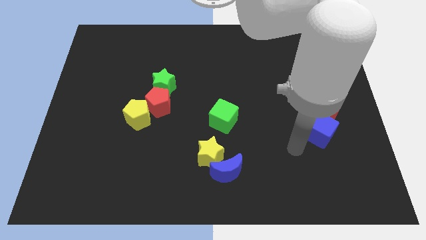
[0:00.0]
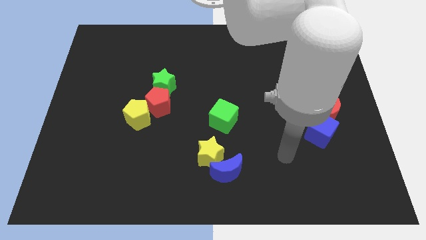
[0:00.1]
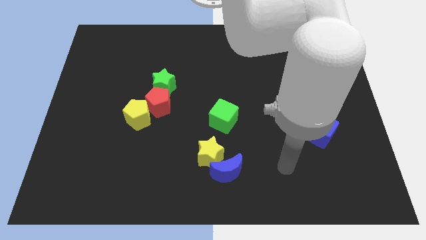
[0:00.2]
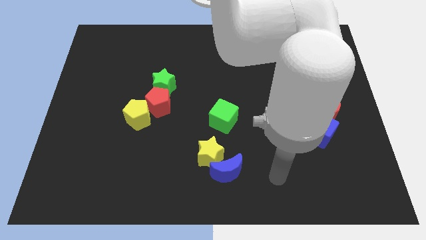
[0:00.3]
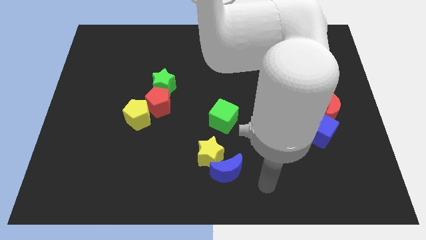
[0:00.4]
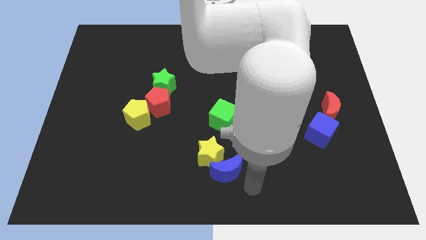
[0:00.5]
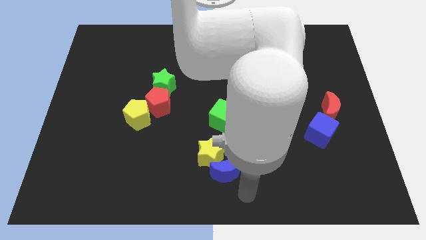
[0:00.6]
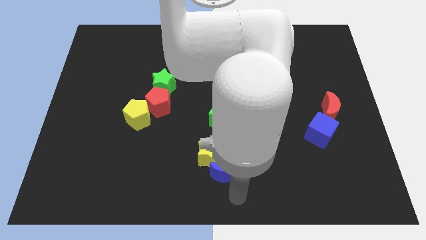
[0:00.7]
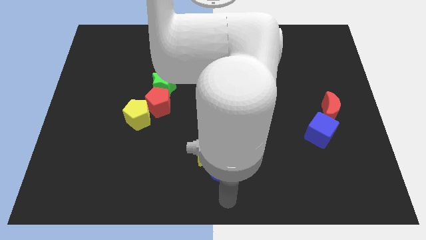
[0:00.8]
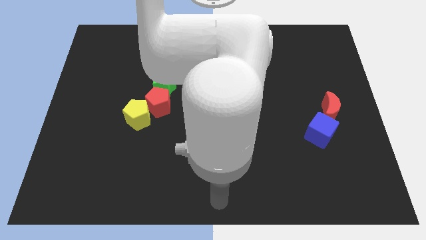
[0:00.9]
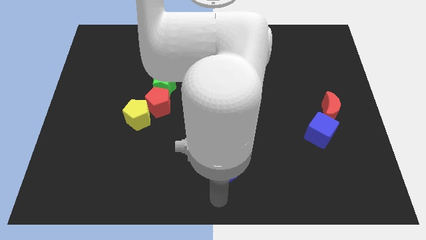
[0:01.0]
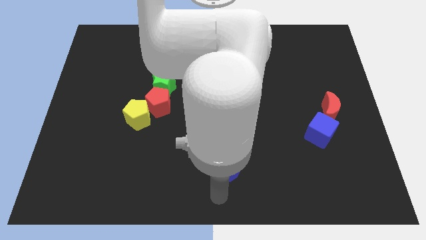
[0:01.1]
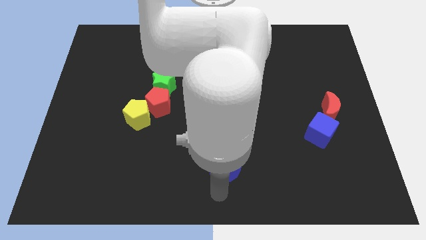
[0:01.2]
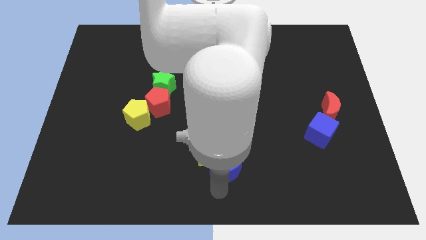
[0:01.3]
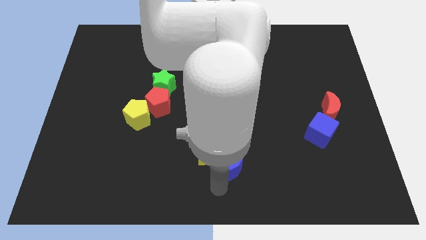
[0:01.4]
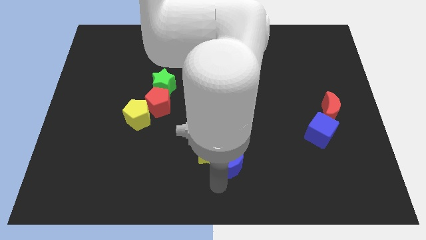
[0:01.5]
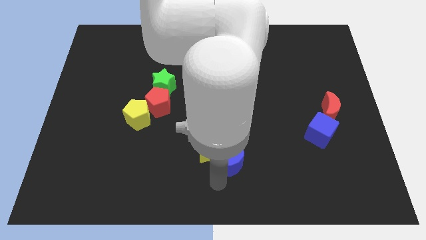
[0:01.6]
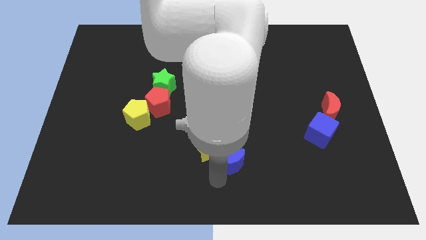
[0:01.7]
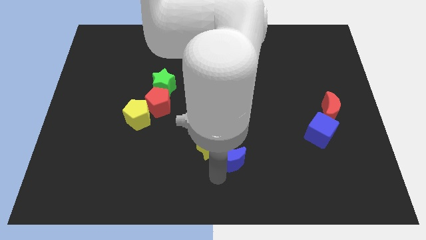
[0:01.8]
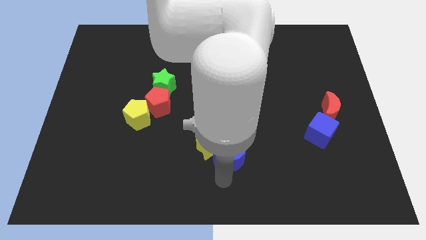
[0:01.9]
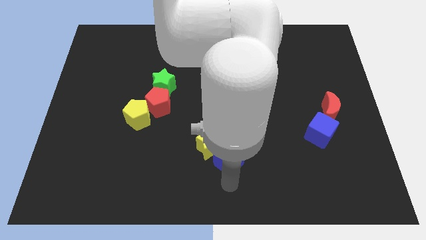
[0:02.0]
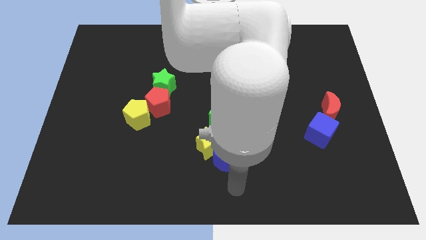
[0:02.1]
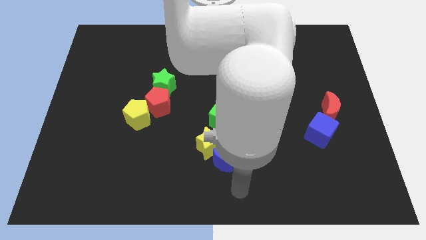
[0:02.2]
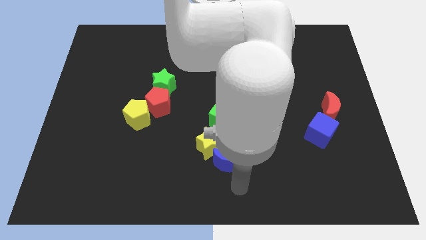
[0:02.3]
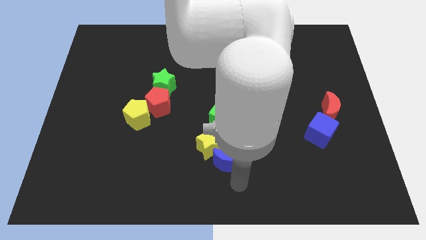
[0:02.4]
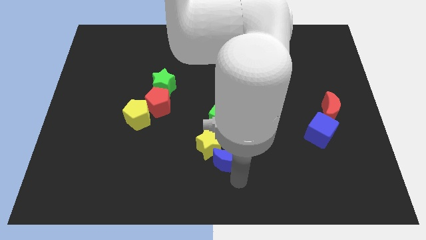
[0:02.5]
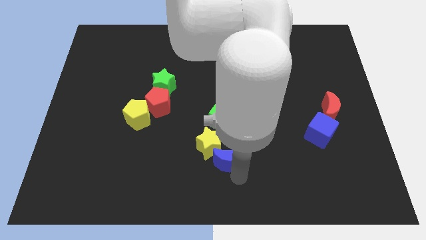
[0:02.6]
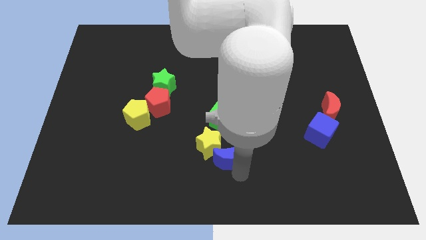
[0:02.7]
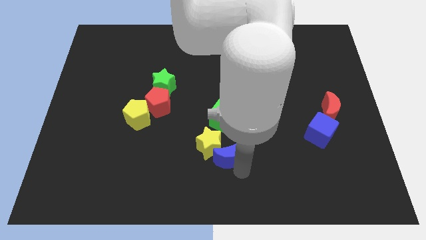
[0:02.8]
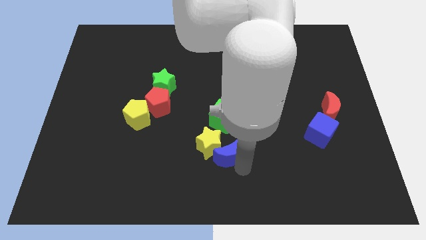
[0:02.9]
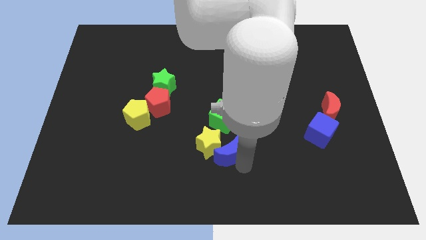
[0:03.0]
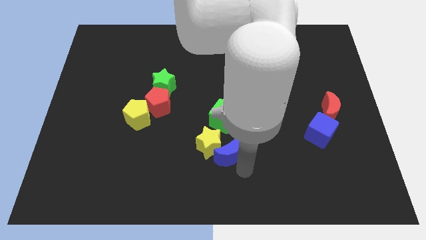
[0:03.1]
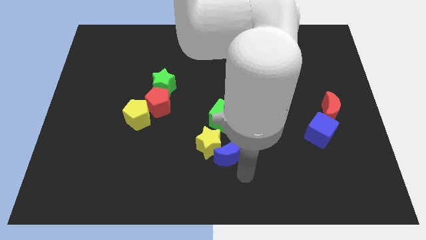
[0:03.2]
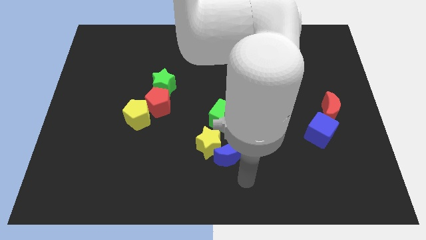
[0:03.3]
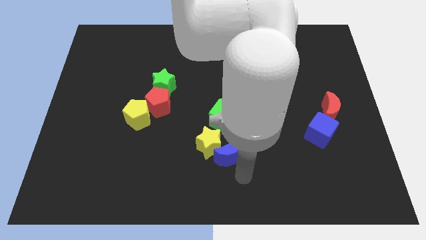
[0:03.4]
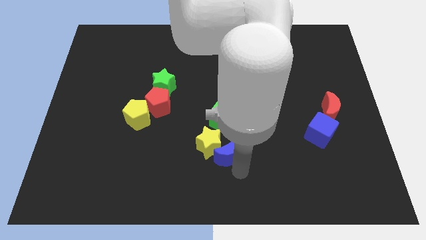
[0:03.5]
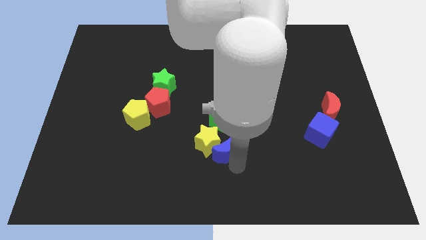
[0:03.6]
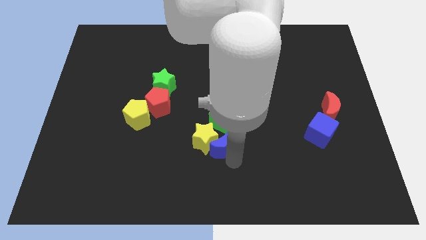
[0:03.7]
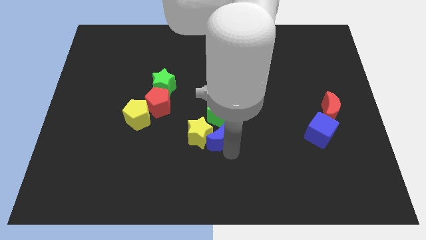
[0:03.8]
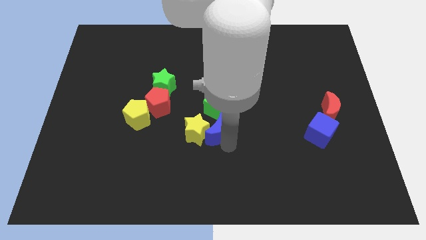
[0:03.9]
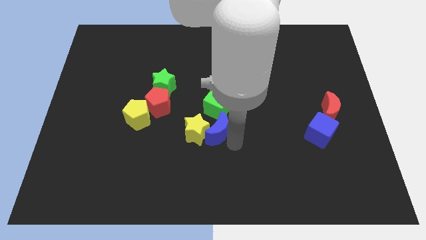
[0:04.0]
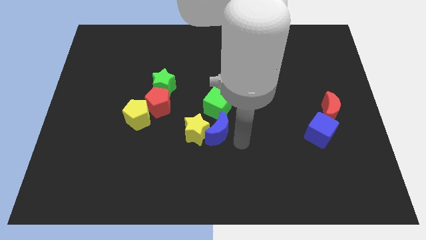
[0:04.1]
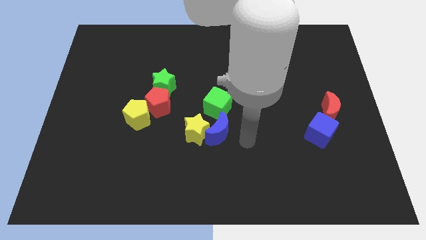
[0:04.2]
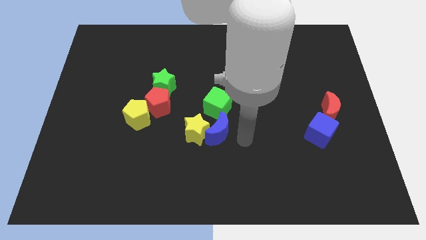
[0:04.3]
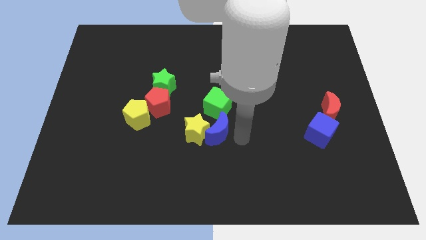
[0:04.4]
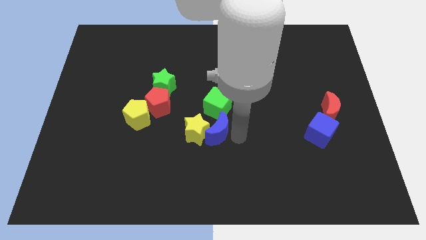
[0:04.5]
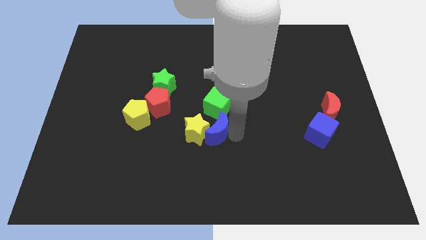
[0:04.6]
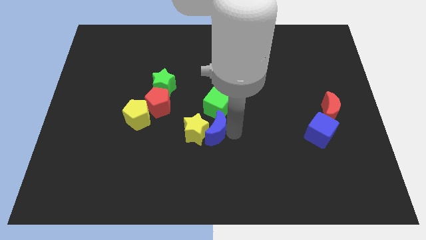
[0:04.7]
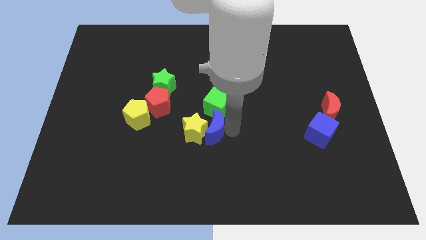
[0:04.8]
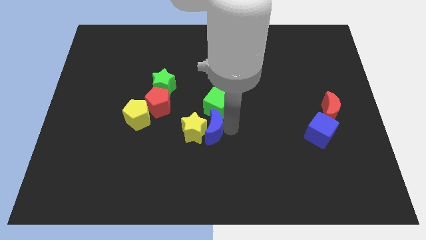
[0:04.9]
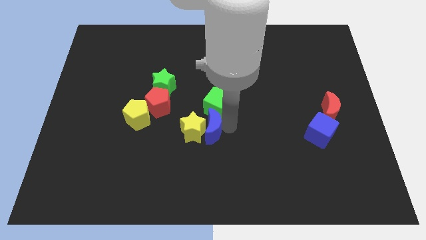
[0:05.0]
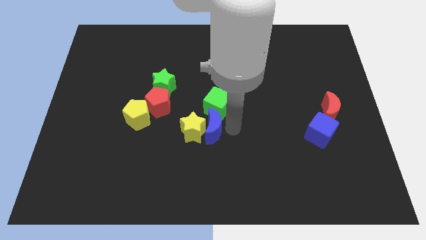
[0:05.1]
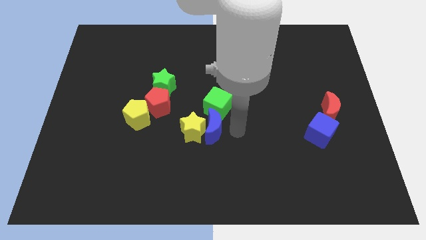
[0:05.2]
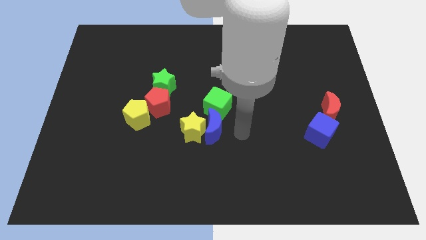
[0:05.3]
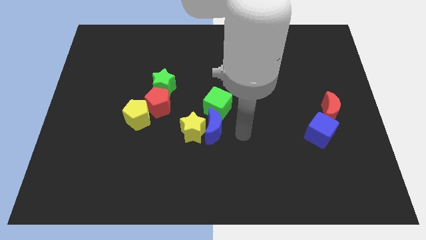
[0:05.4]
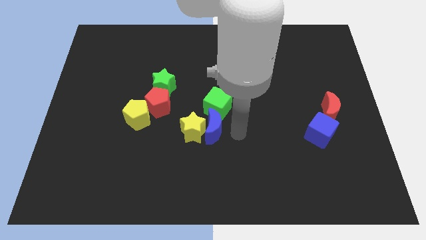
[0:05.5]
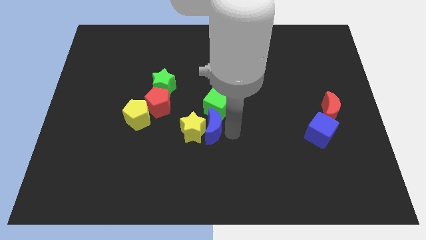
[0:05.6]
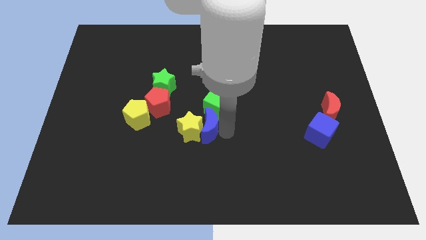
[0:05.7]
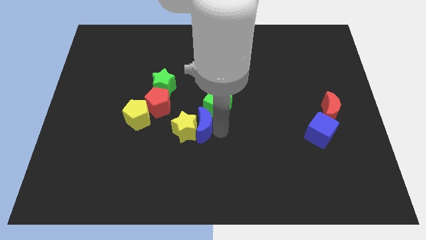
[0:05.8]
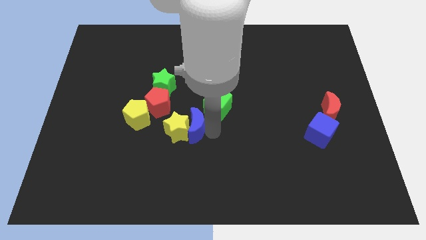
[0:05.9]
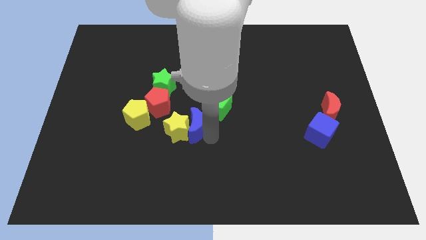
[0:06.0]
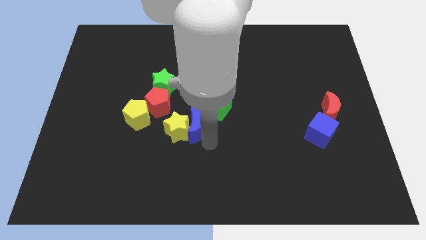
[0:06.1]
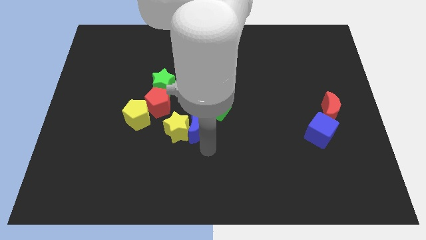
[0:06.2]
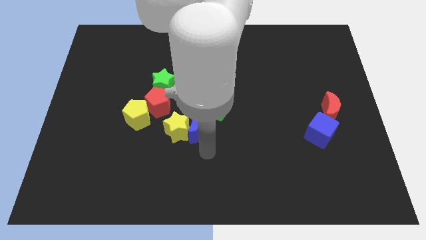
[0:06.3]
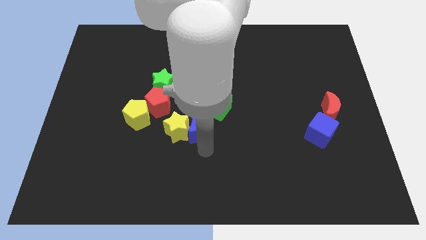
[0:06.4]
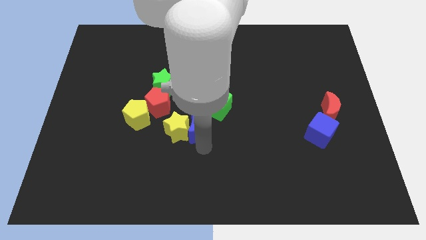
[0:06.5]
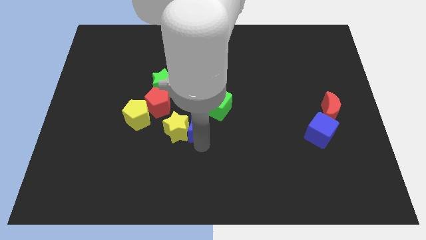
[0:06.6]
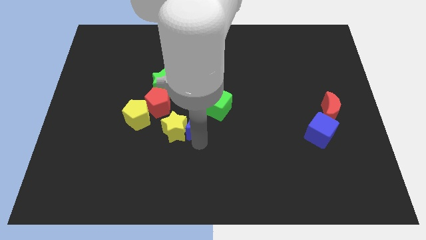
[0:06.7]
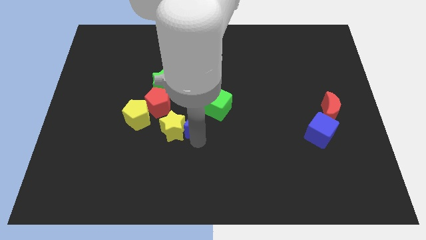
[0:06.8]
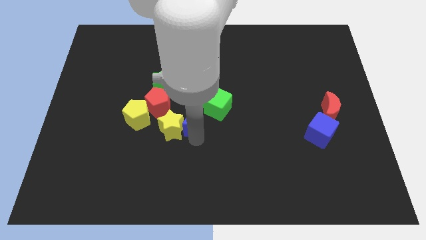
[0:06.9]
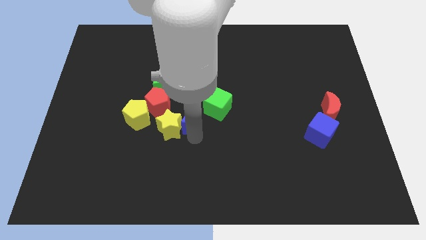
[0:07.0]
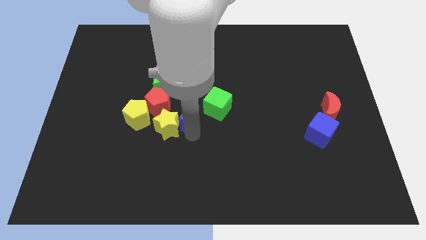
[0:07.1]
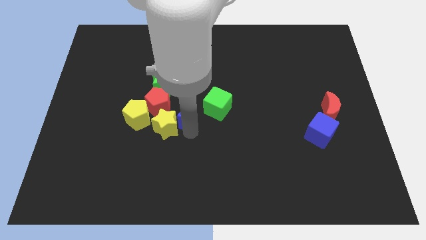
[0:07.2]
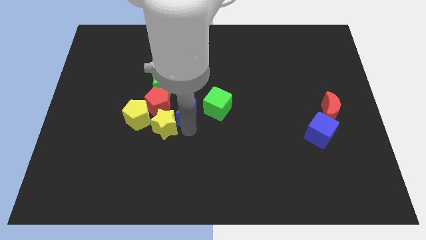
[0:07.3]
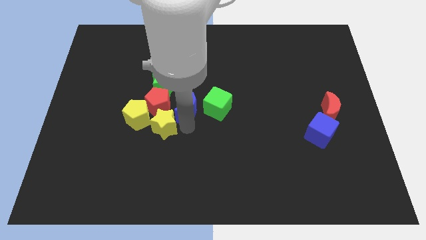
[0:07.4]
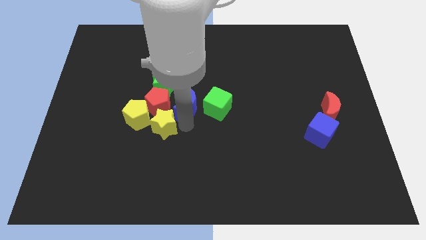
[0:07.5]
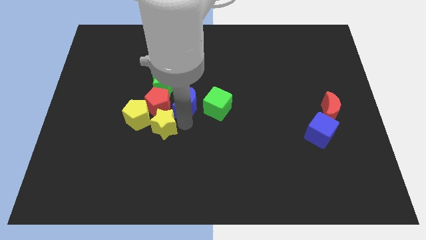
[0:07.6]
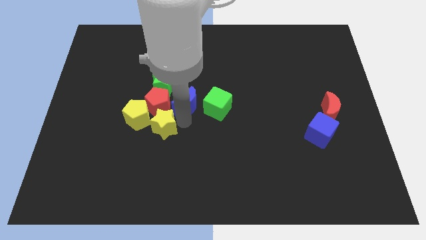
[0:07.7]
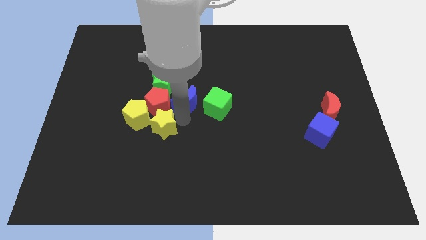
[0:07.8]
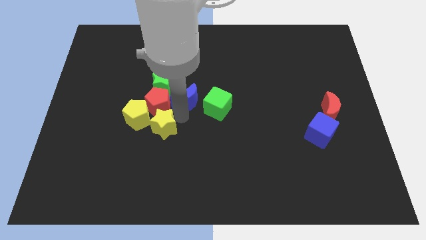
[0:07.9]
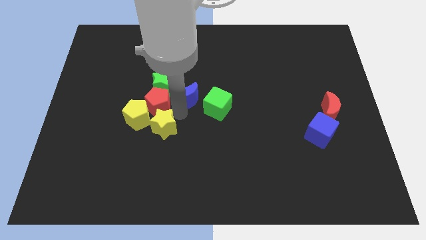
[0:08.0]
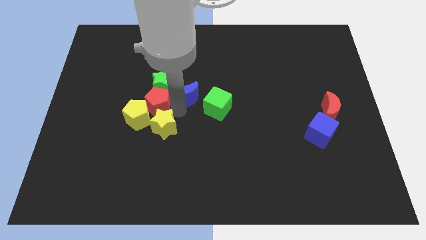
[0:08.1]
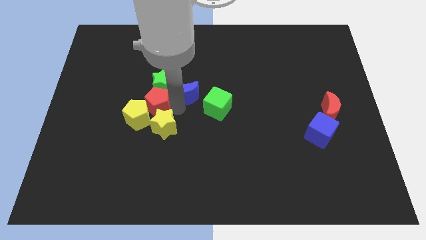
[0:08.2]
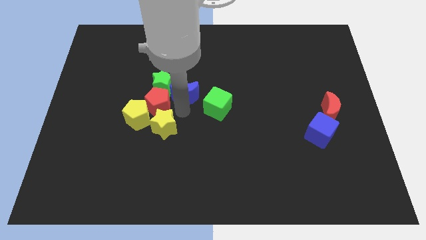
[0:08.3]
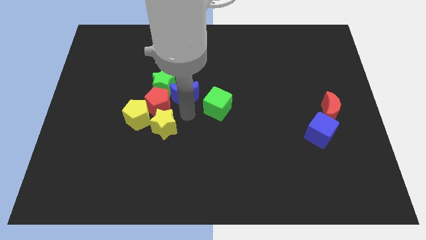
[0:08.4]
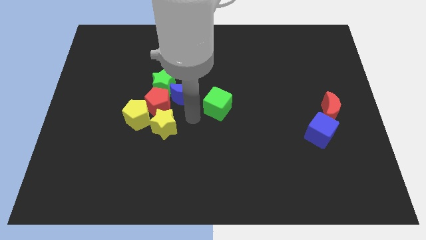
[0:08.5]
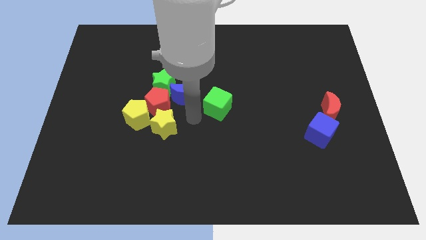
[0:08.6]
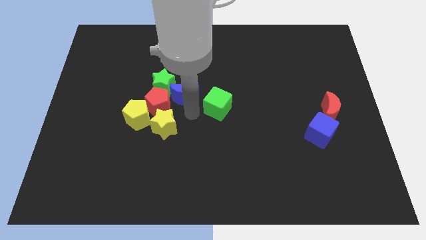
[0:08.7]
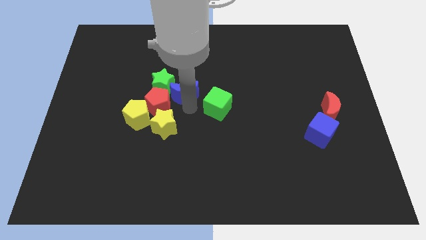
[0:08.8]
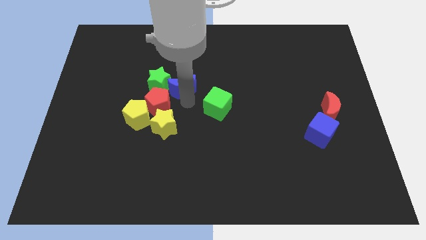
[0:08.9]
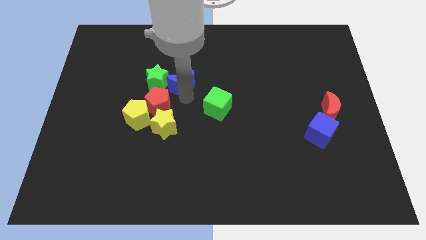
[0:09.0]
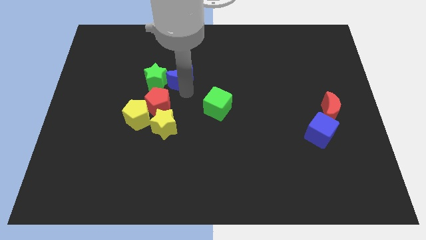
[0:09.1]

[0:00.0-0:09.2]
put the blue moon to the top of the red pentagon
